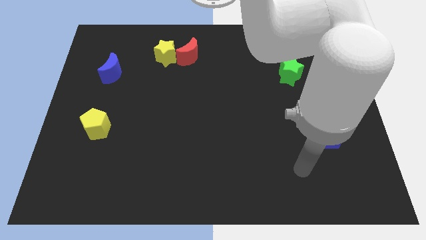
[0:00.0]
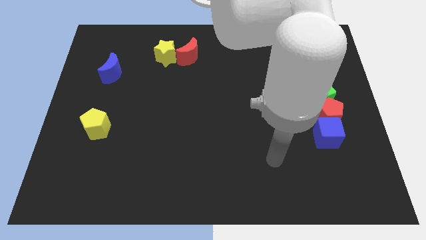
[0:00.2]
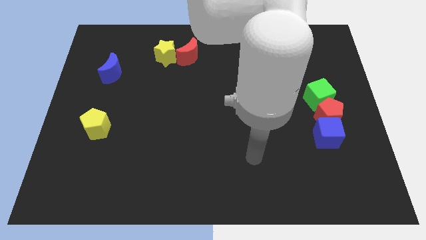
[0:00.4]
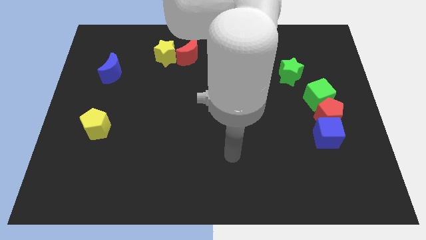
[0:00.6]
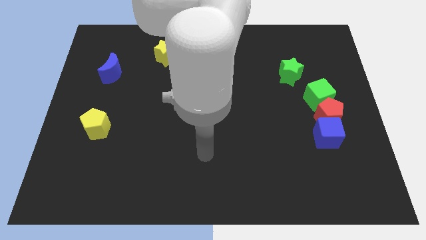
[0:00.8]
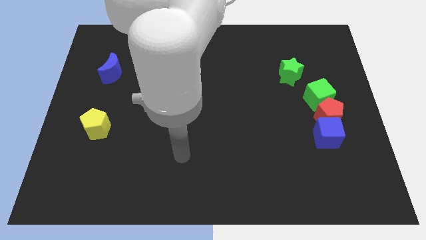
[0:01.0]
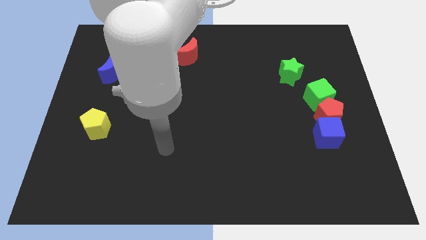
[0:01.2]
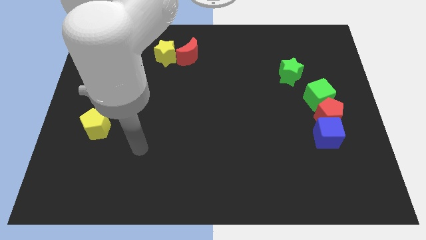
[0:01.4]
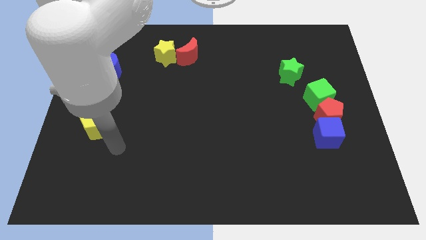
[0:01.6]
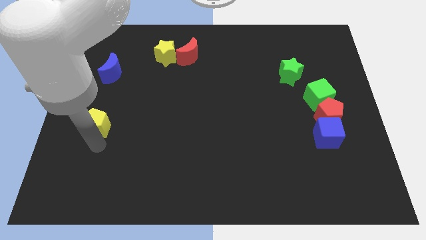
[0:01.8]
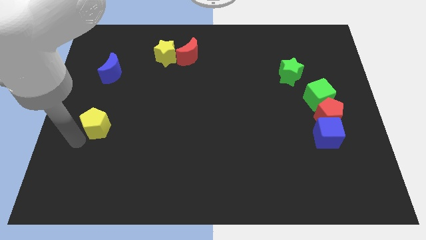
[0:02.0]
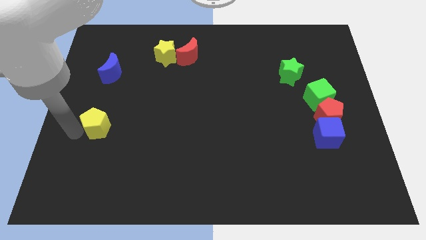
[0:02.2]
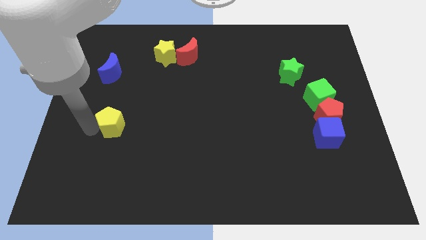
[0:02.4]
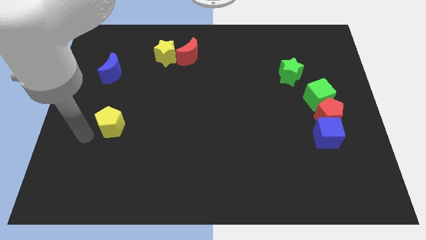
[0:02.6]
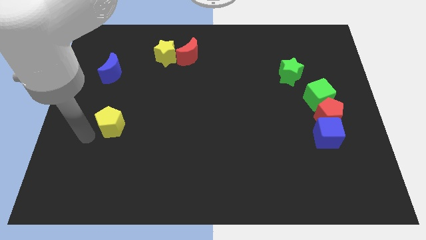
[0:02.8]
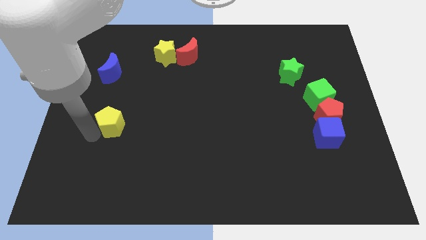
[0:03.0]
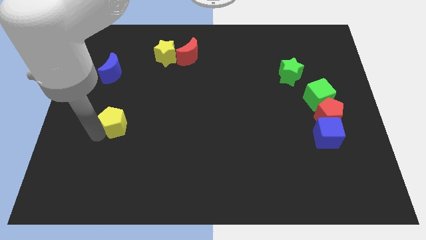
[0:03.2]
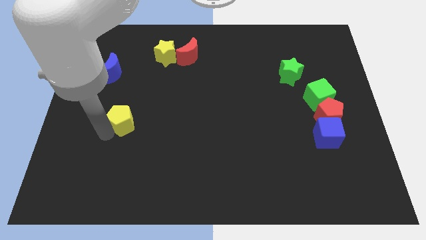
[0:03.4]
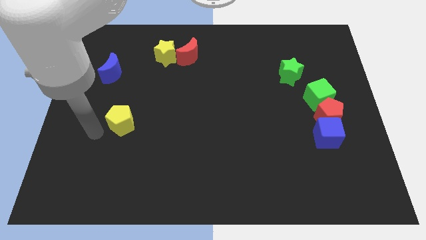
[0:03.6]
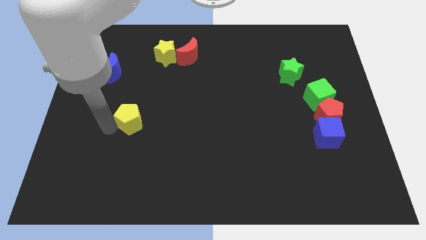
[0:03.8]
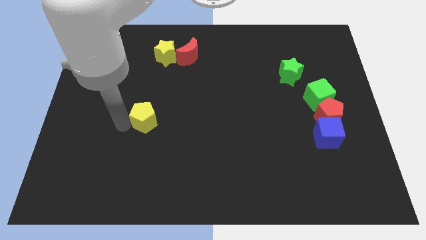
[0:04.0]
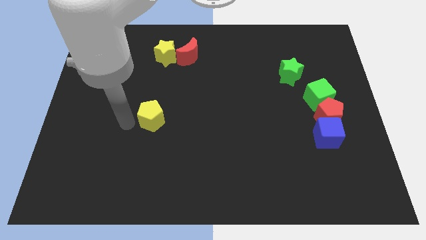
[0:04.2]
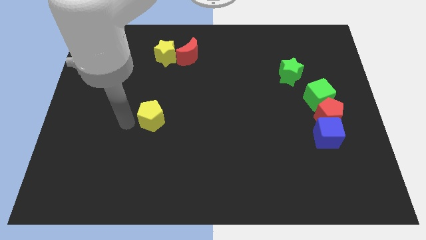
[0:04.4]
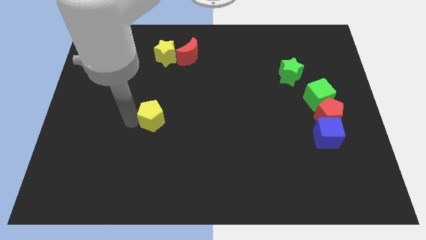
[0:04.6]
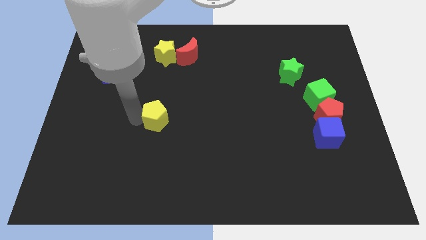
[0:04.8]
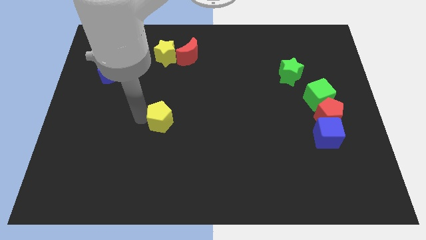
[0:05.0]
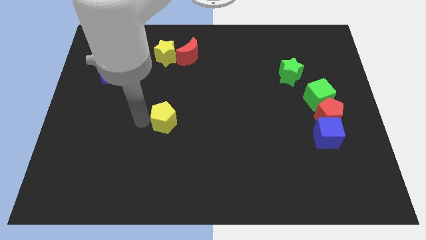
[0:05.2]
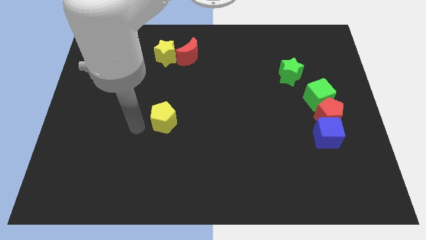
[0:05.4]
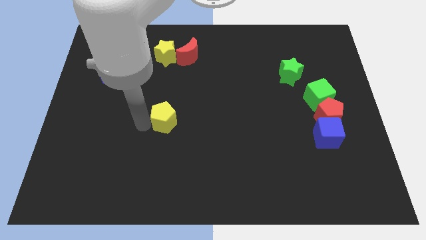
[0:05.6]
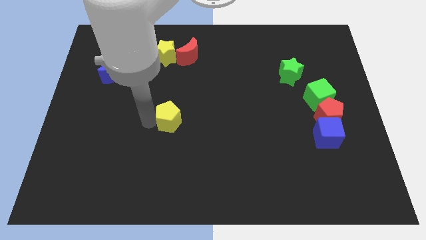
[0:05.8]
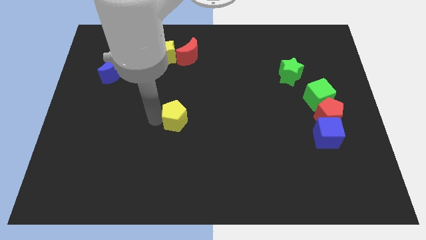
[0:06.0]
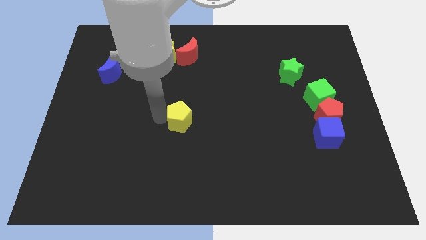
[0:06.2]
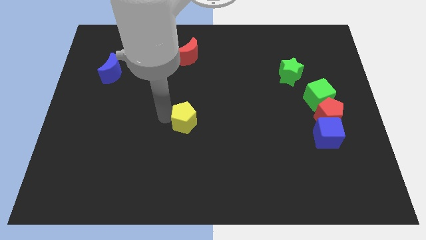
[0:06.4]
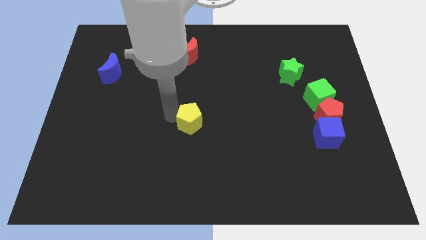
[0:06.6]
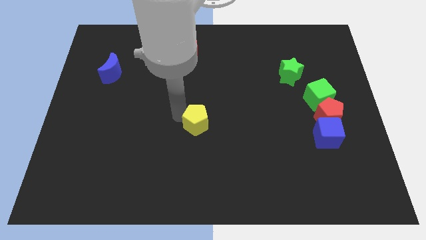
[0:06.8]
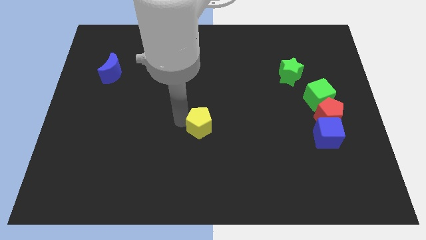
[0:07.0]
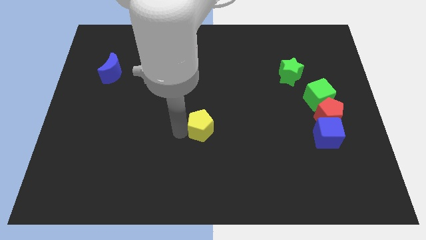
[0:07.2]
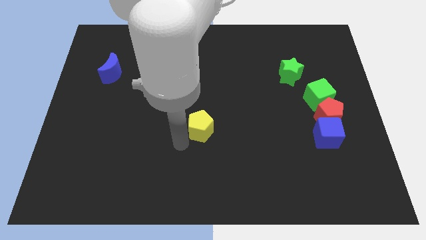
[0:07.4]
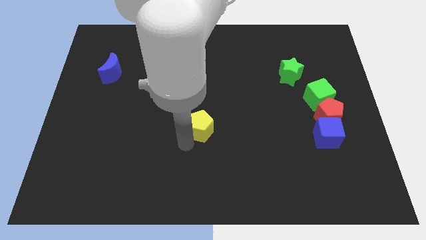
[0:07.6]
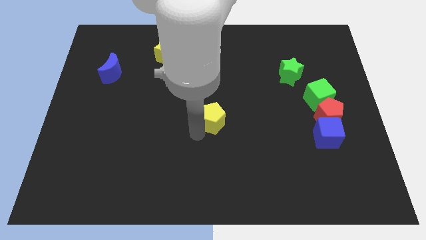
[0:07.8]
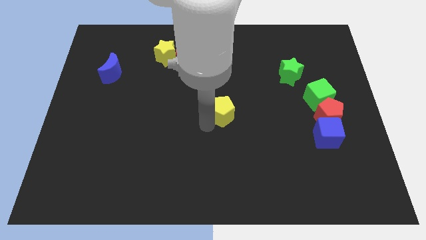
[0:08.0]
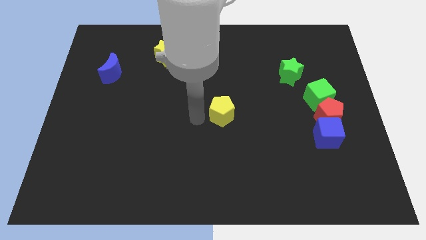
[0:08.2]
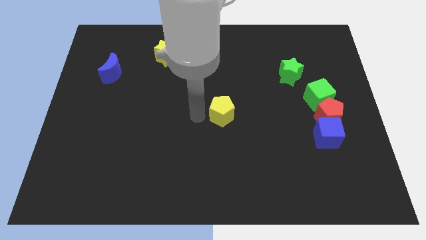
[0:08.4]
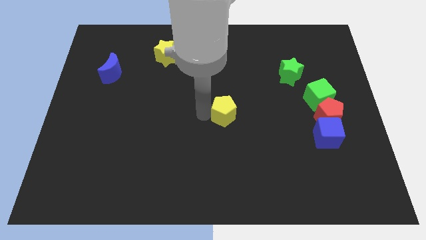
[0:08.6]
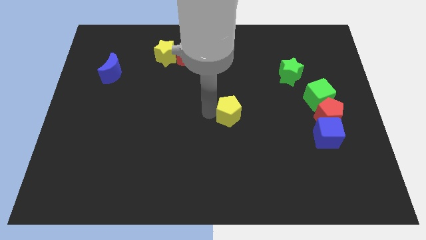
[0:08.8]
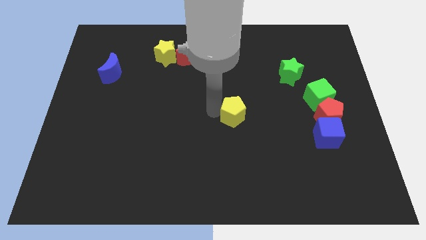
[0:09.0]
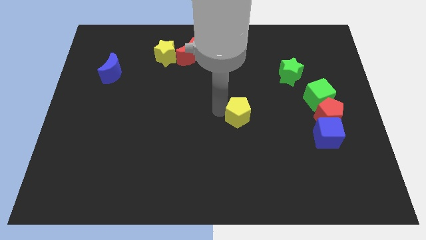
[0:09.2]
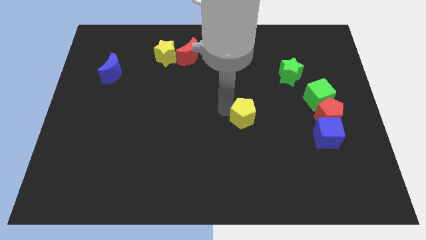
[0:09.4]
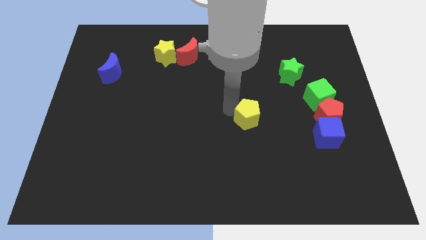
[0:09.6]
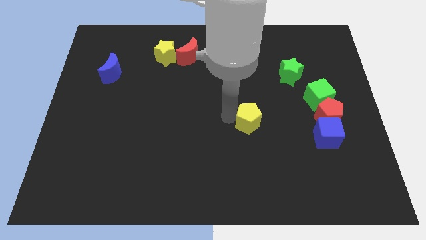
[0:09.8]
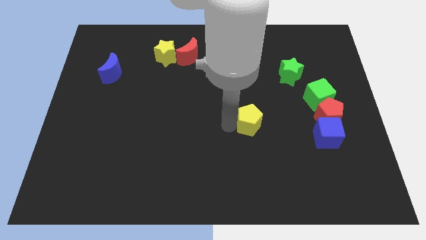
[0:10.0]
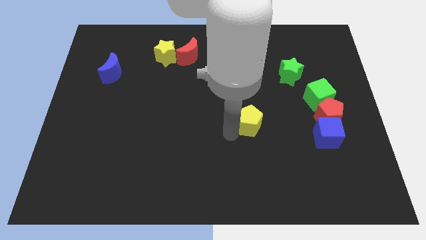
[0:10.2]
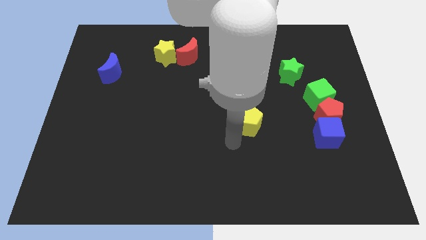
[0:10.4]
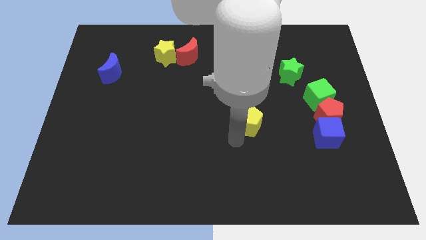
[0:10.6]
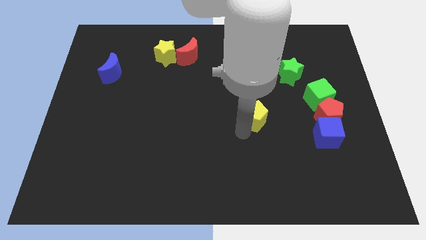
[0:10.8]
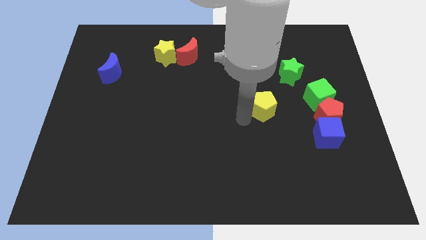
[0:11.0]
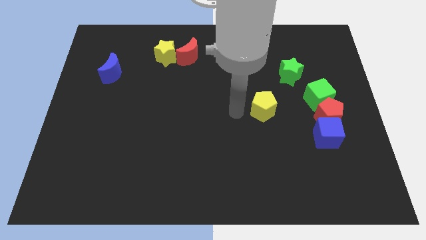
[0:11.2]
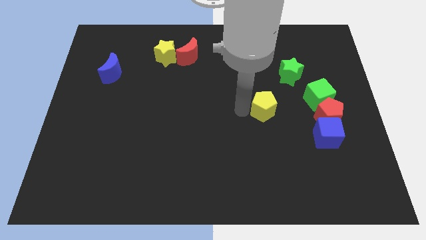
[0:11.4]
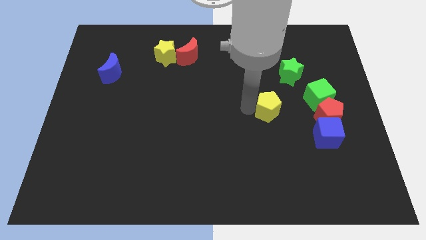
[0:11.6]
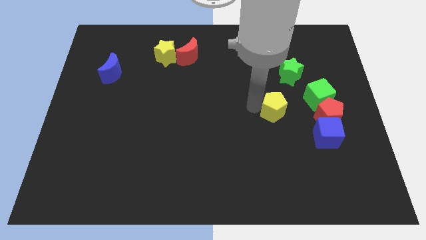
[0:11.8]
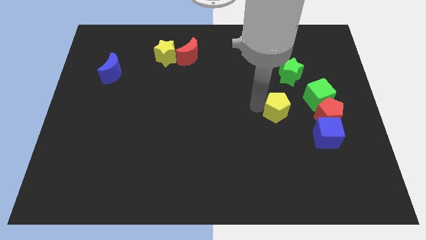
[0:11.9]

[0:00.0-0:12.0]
push the yellow pentagon to the bottom side of the green star

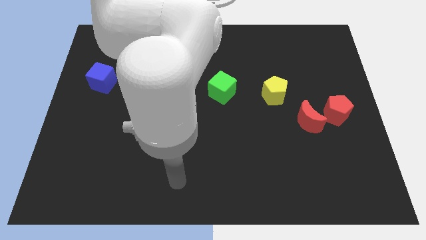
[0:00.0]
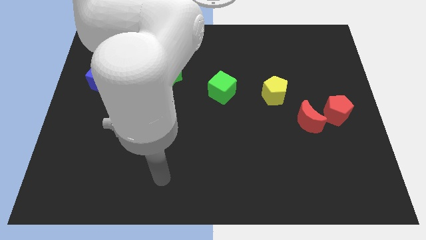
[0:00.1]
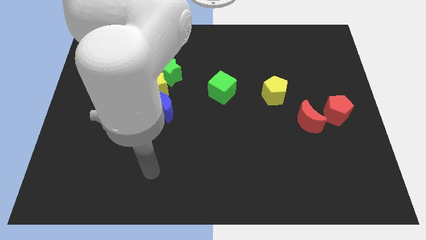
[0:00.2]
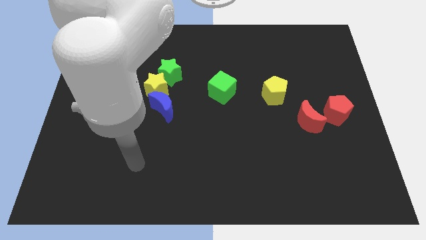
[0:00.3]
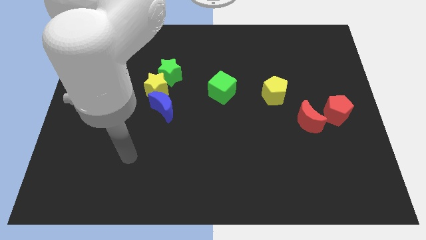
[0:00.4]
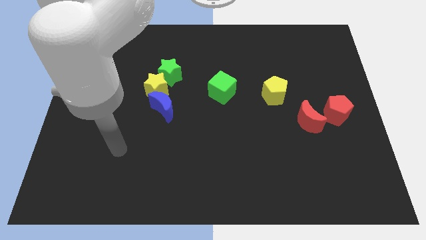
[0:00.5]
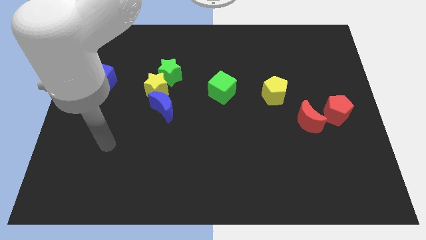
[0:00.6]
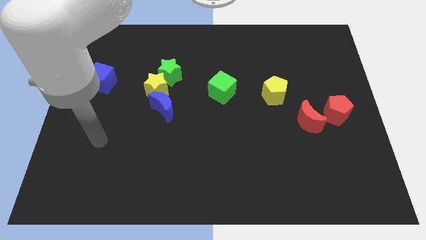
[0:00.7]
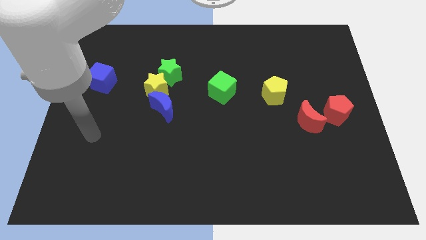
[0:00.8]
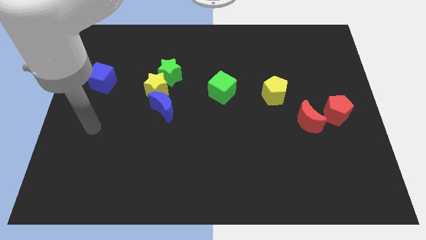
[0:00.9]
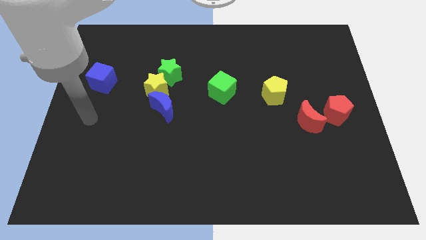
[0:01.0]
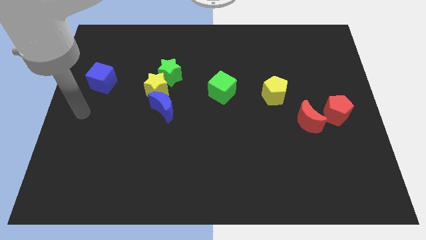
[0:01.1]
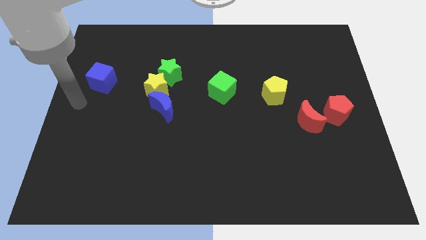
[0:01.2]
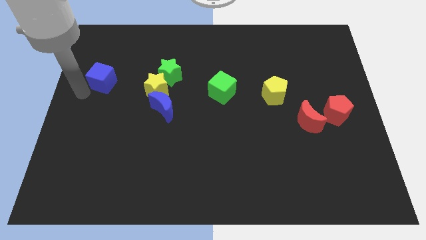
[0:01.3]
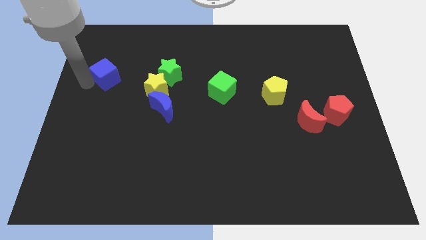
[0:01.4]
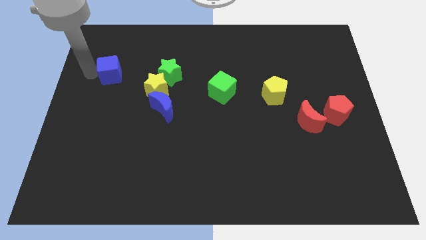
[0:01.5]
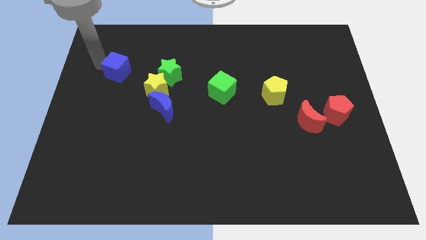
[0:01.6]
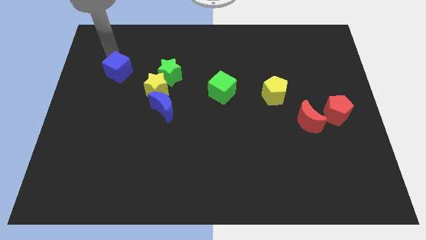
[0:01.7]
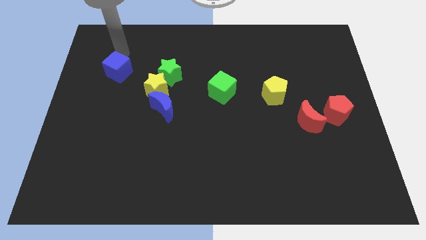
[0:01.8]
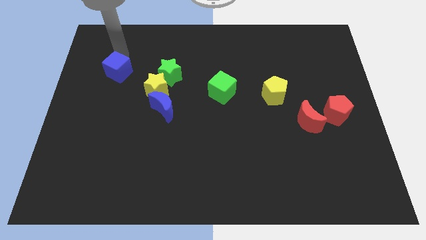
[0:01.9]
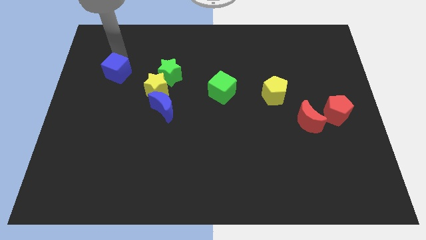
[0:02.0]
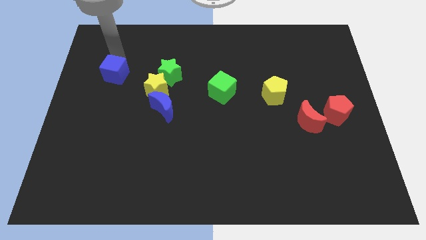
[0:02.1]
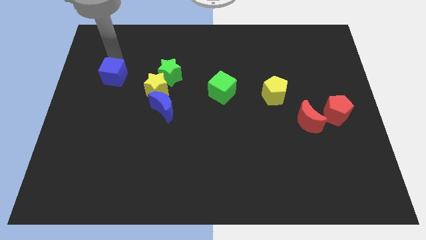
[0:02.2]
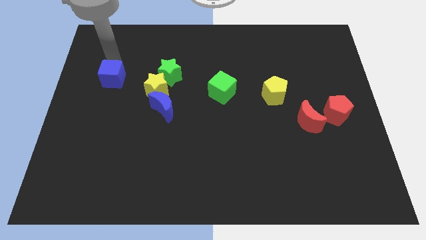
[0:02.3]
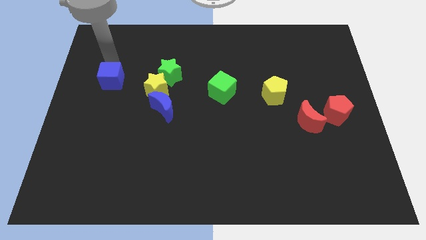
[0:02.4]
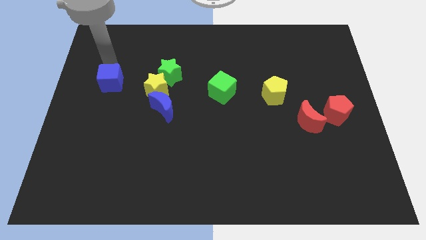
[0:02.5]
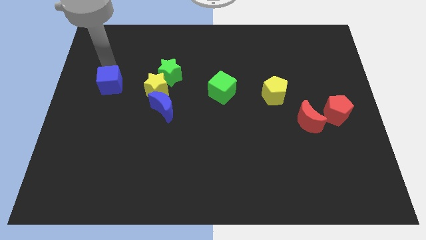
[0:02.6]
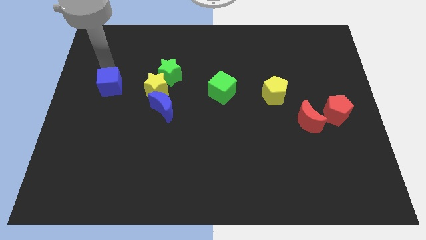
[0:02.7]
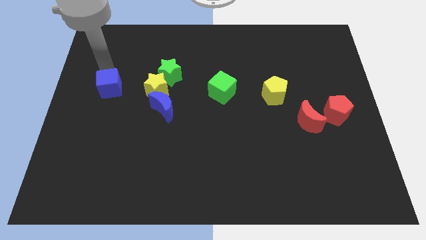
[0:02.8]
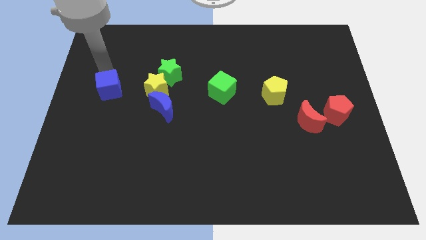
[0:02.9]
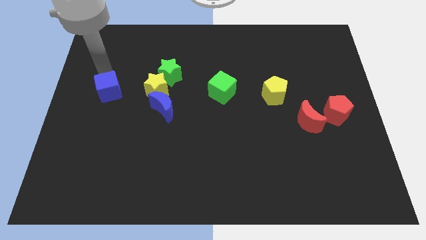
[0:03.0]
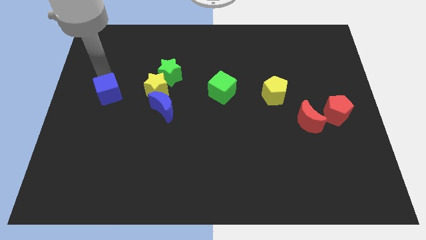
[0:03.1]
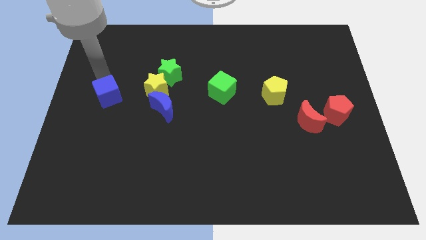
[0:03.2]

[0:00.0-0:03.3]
slide the blue cube to the left of the blue moon
